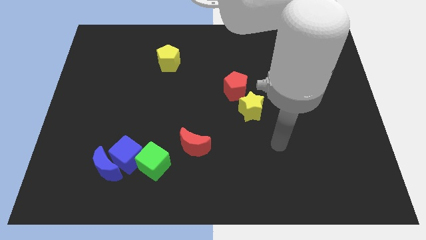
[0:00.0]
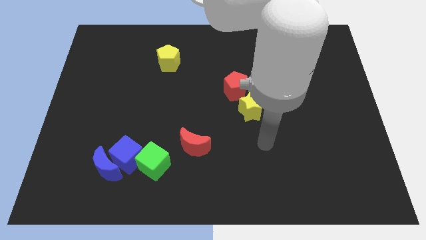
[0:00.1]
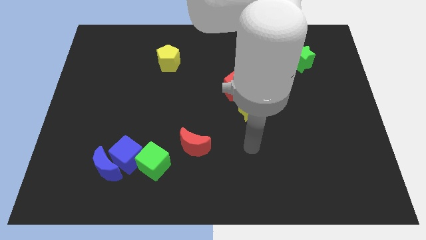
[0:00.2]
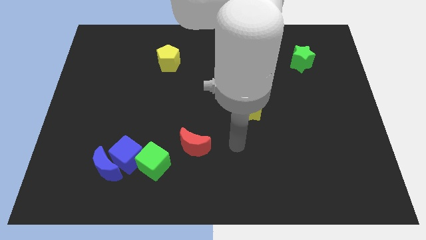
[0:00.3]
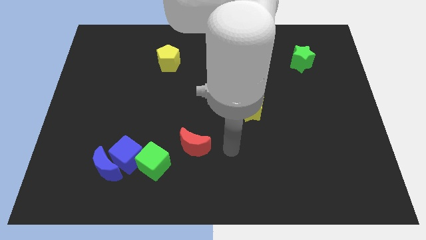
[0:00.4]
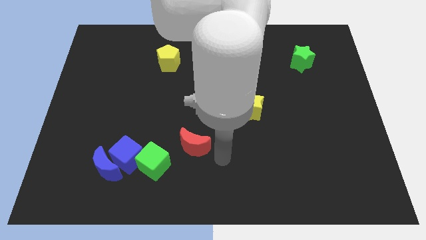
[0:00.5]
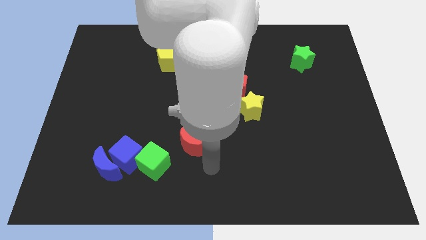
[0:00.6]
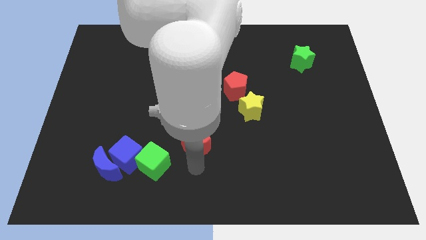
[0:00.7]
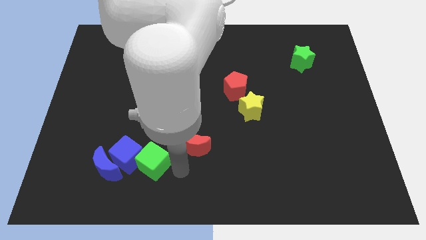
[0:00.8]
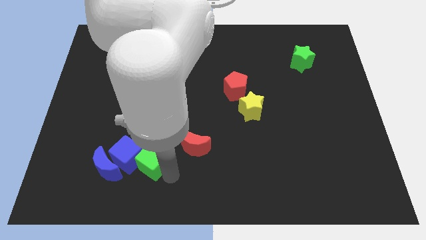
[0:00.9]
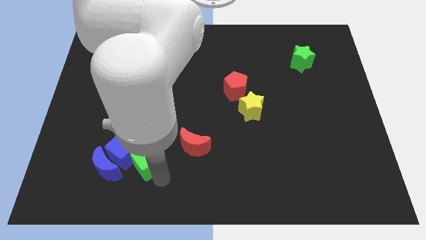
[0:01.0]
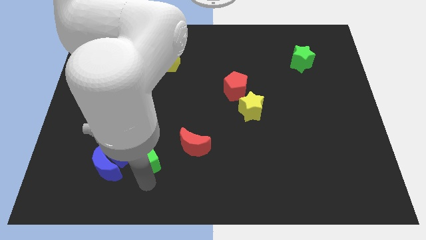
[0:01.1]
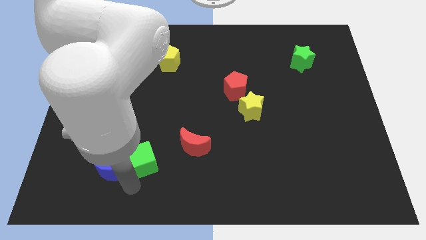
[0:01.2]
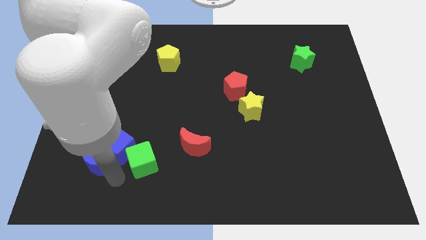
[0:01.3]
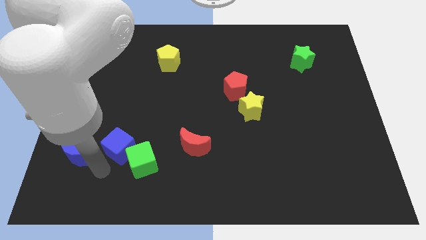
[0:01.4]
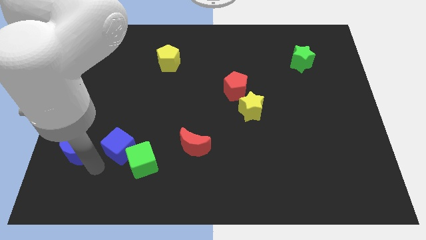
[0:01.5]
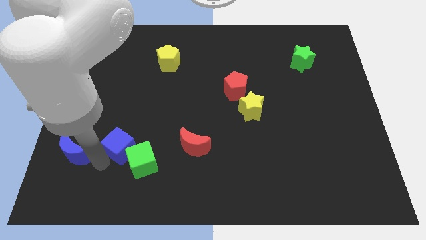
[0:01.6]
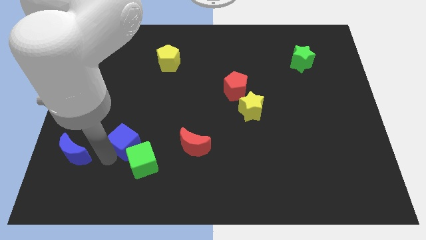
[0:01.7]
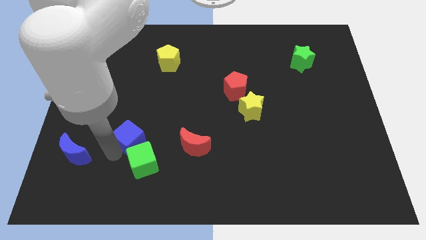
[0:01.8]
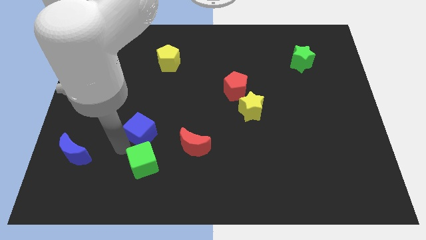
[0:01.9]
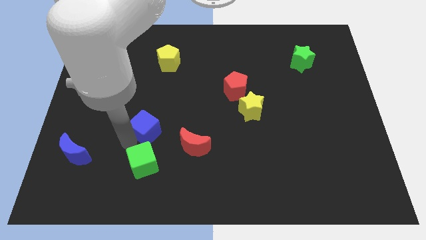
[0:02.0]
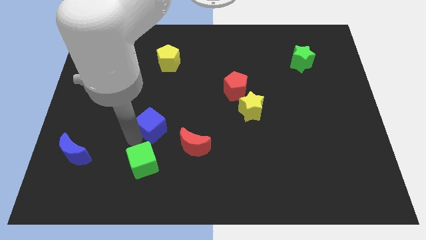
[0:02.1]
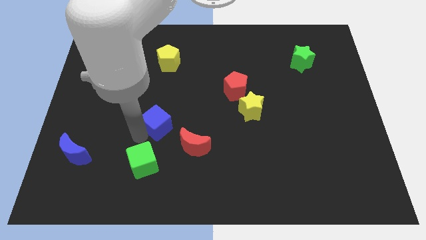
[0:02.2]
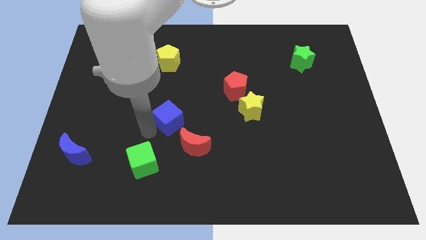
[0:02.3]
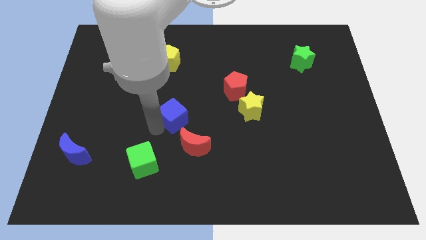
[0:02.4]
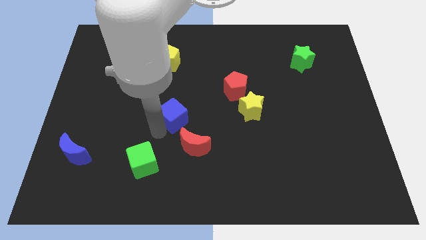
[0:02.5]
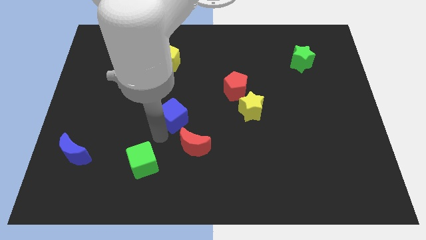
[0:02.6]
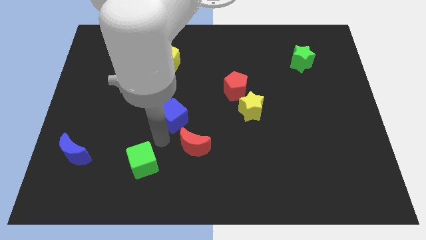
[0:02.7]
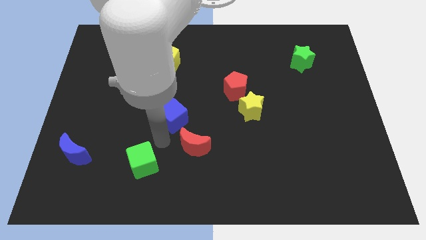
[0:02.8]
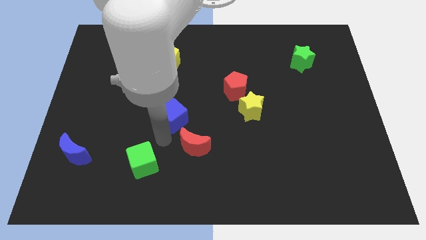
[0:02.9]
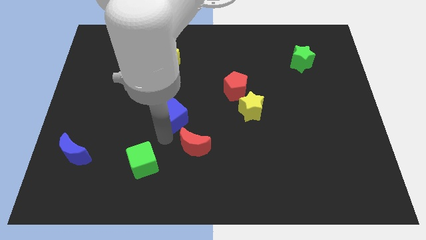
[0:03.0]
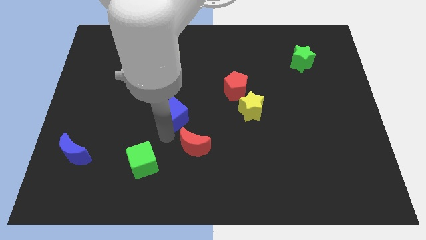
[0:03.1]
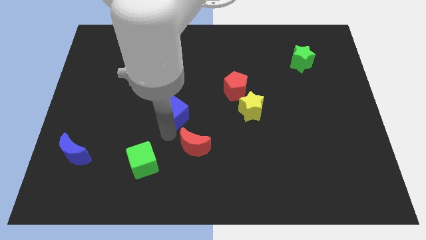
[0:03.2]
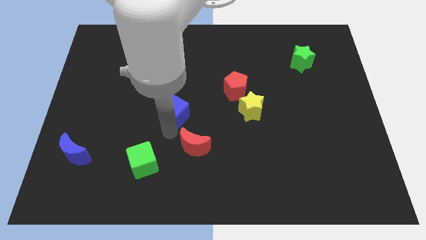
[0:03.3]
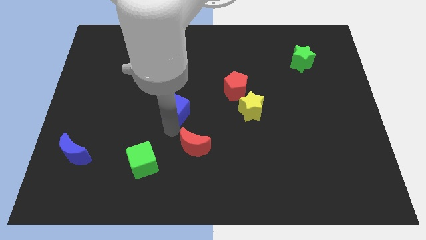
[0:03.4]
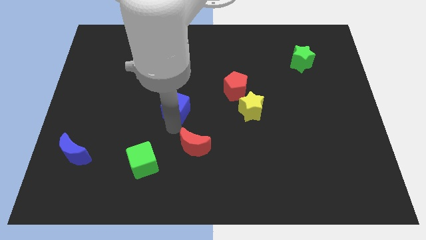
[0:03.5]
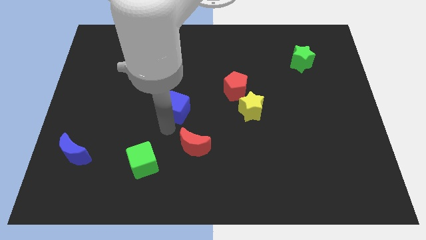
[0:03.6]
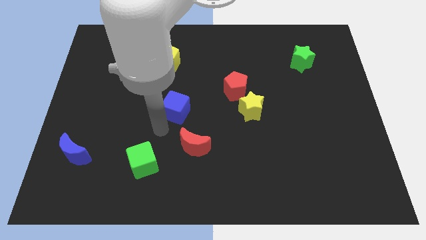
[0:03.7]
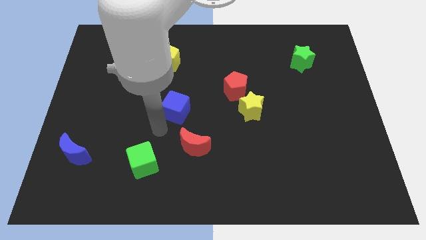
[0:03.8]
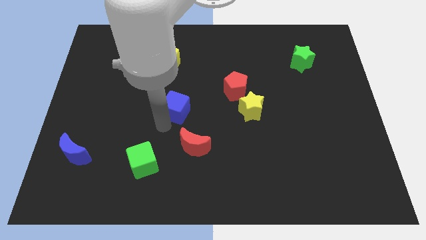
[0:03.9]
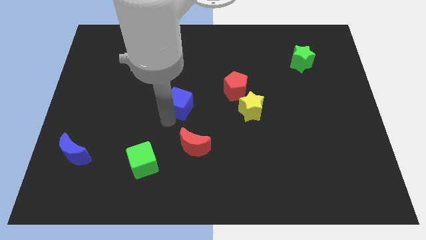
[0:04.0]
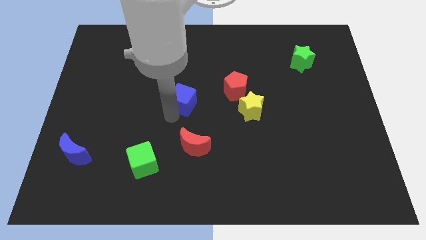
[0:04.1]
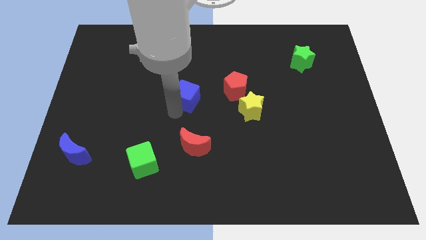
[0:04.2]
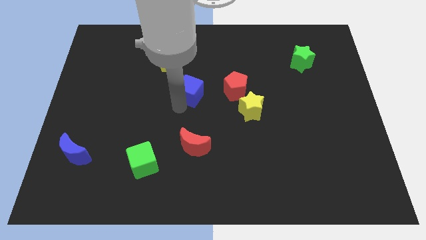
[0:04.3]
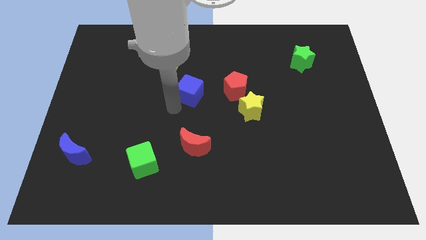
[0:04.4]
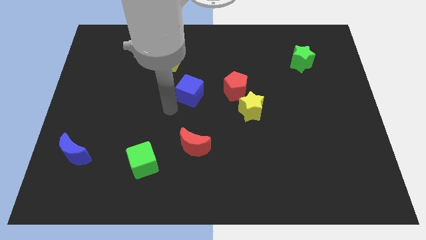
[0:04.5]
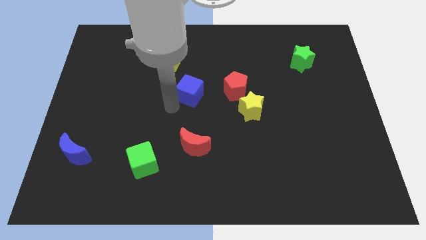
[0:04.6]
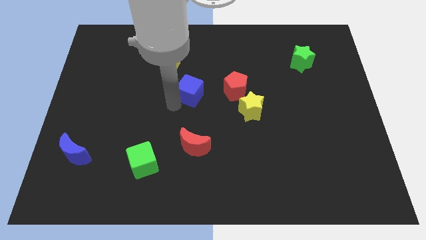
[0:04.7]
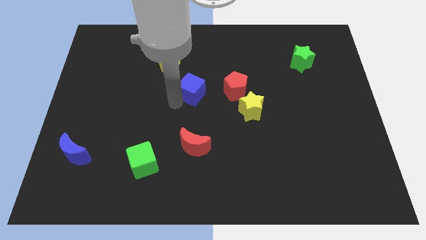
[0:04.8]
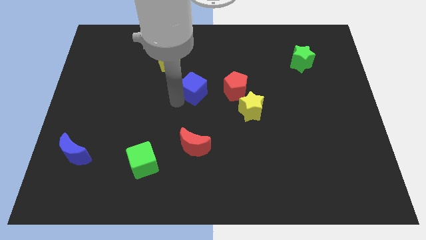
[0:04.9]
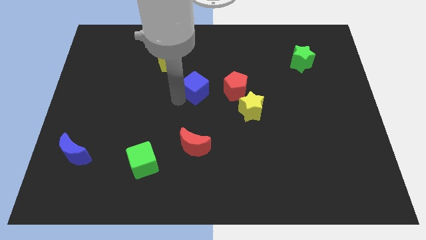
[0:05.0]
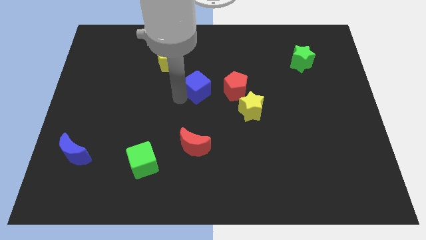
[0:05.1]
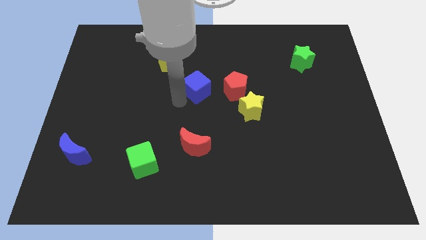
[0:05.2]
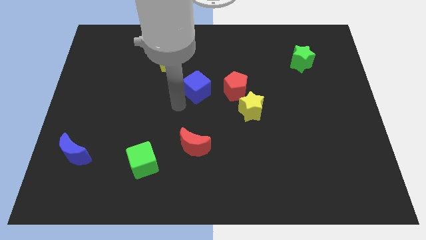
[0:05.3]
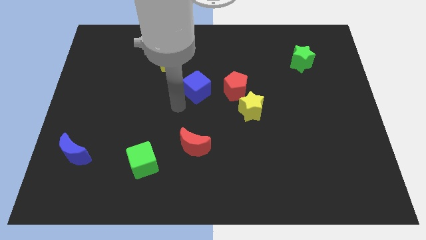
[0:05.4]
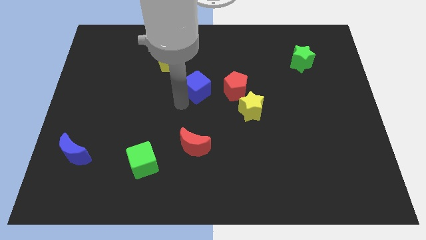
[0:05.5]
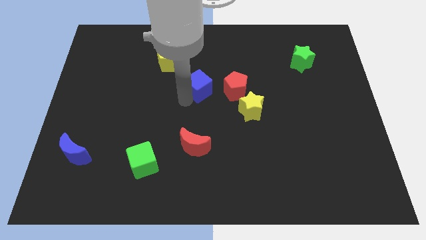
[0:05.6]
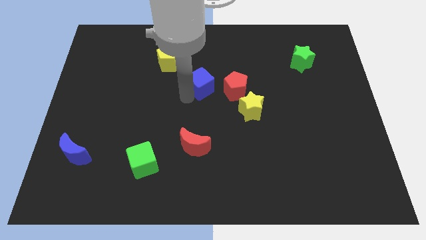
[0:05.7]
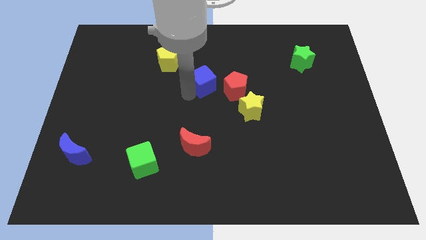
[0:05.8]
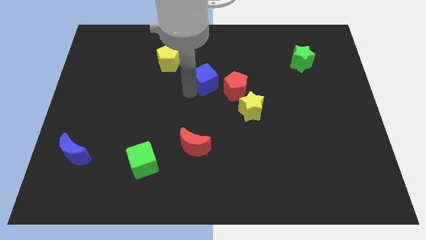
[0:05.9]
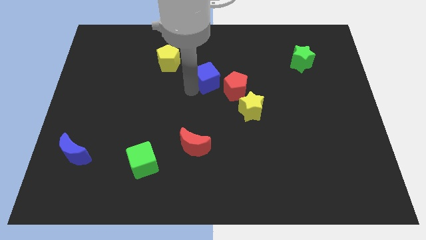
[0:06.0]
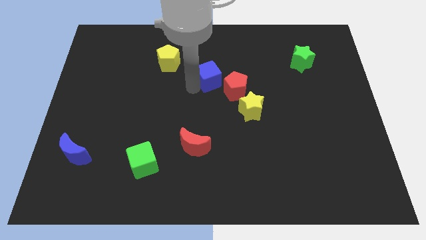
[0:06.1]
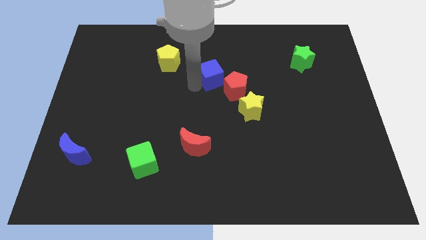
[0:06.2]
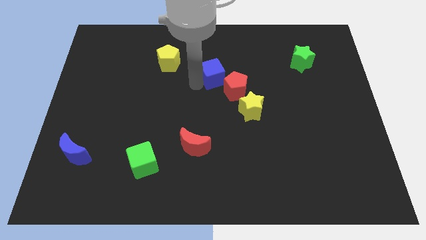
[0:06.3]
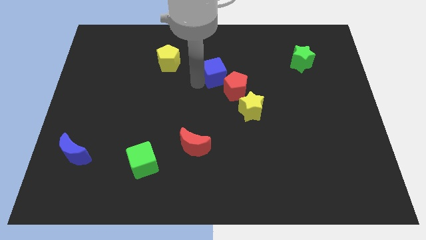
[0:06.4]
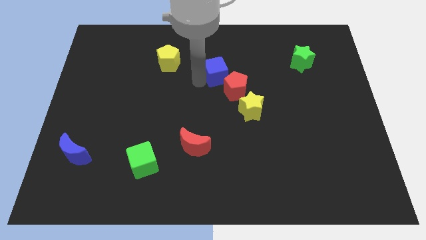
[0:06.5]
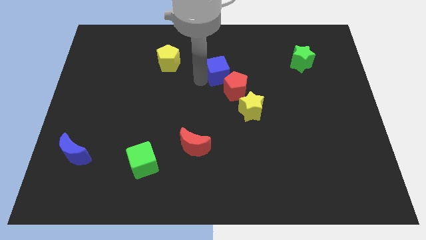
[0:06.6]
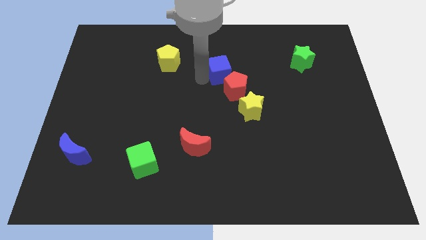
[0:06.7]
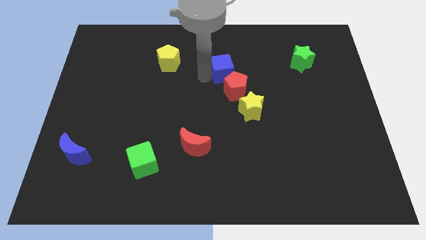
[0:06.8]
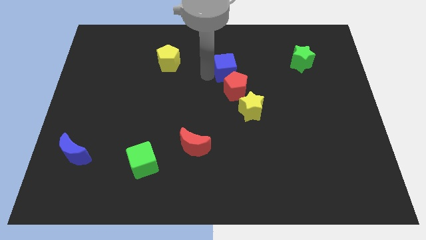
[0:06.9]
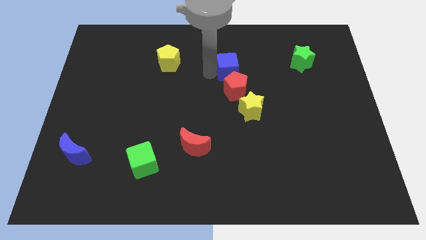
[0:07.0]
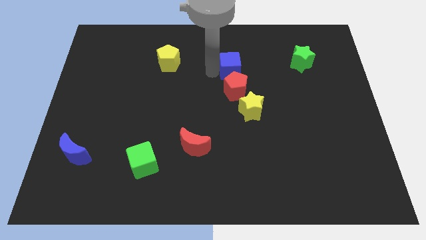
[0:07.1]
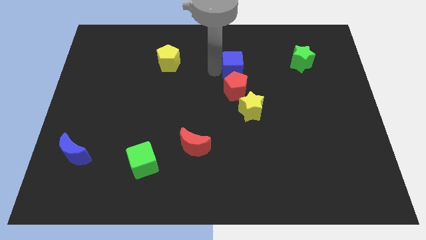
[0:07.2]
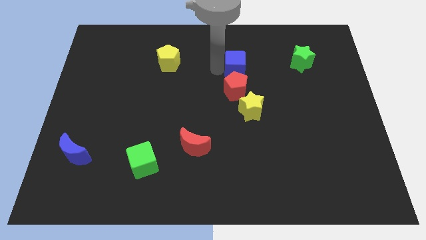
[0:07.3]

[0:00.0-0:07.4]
move the blue cube to the top right of the red pentagon
